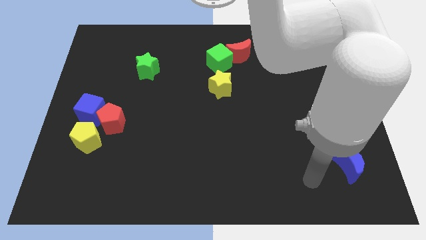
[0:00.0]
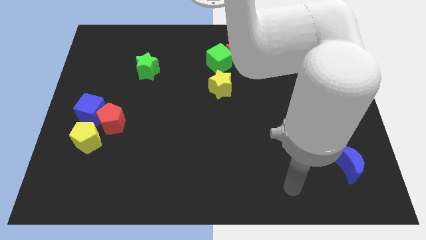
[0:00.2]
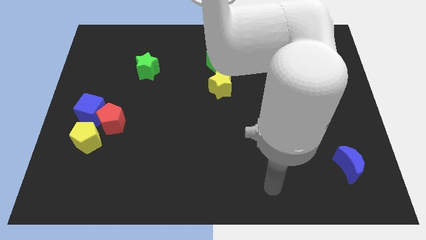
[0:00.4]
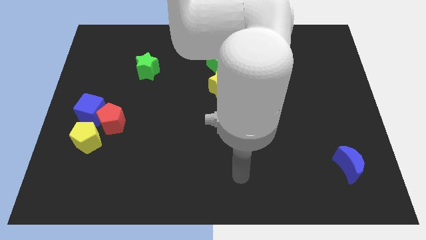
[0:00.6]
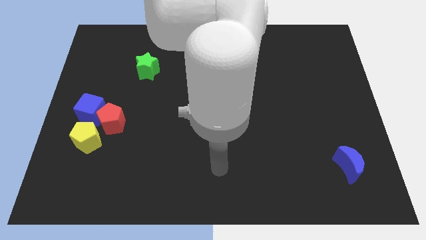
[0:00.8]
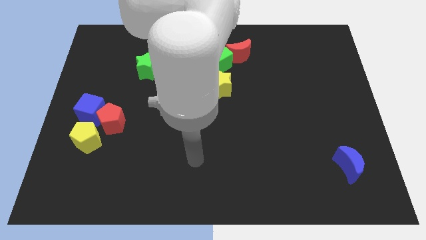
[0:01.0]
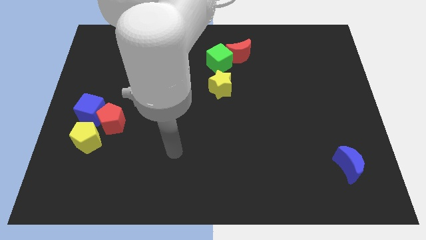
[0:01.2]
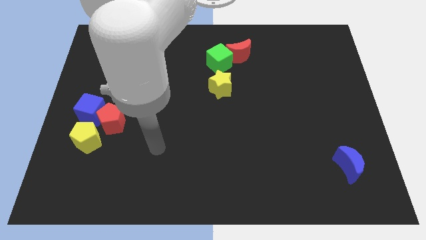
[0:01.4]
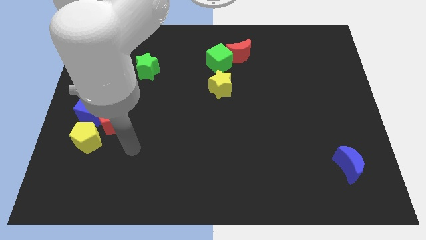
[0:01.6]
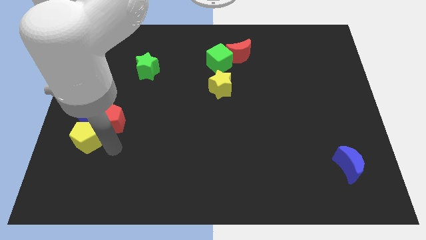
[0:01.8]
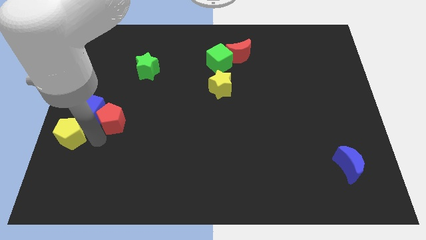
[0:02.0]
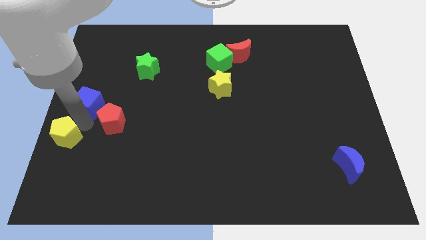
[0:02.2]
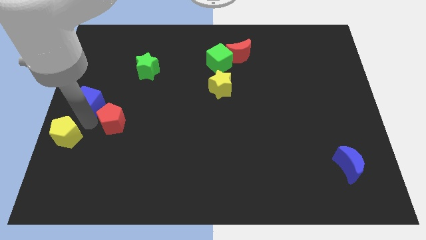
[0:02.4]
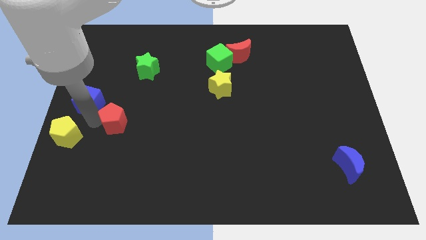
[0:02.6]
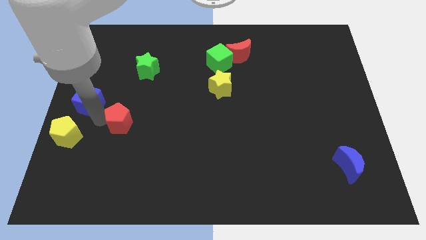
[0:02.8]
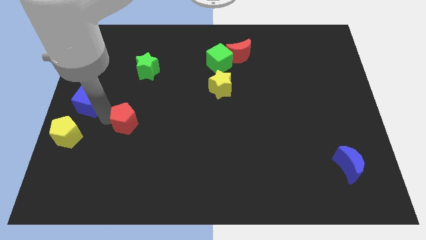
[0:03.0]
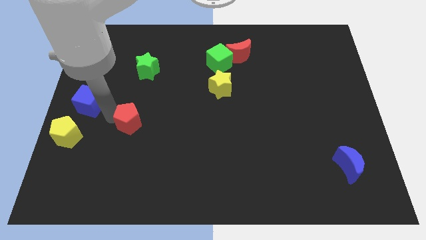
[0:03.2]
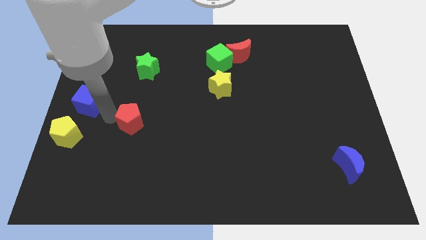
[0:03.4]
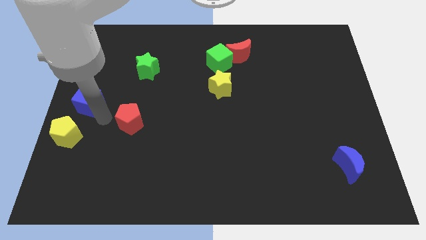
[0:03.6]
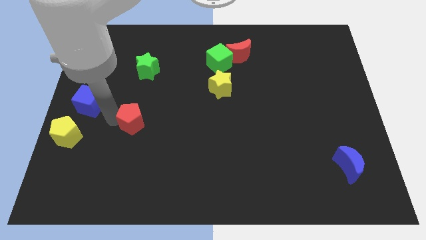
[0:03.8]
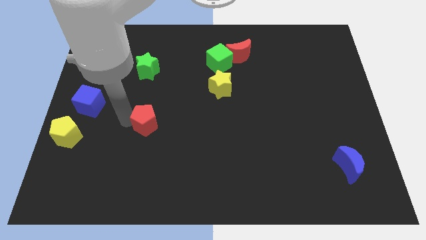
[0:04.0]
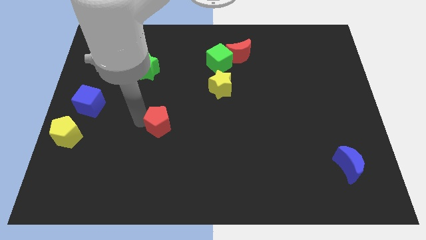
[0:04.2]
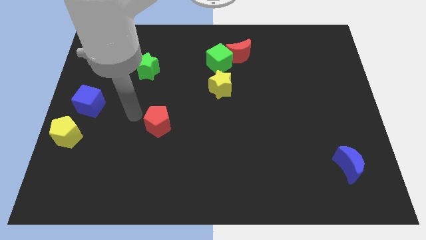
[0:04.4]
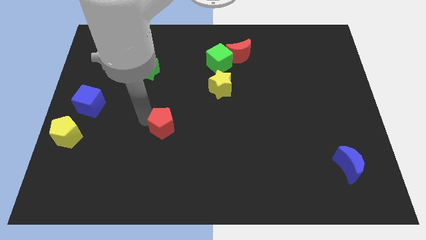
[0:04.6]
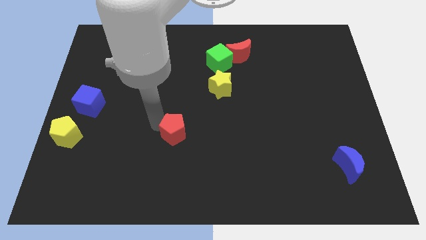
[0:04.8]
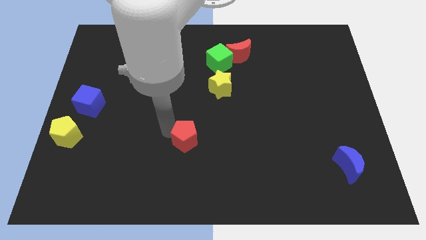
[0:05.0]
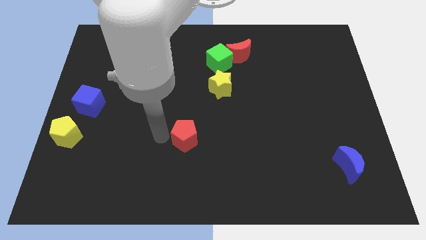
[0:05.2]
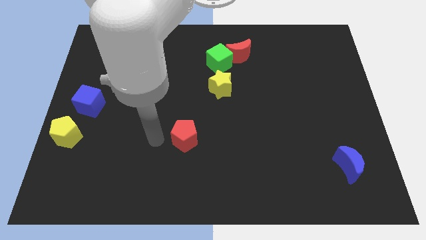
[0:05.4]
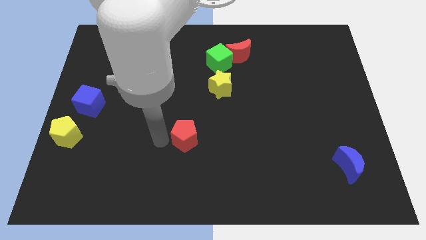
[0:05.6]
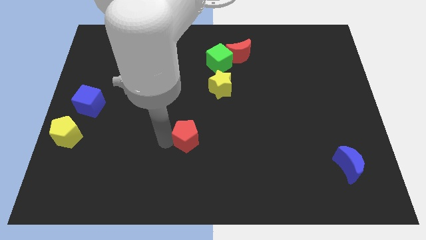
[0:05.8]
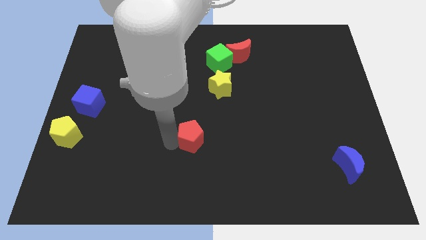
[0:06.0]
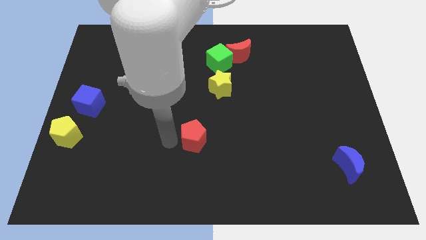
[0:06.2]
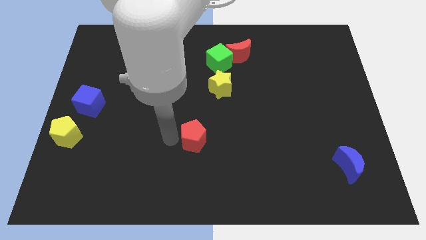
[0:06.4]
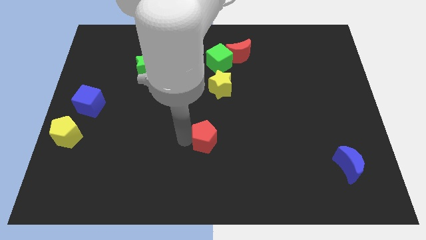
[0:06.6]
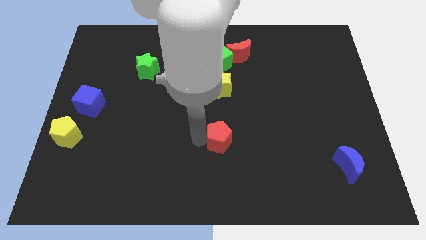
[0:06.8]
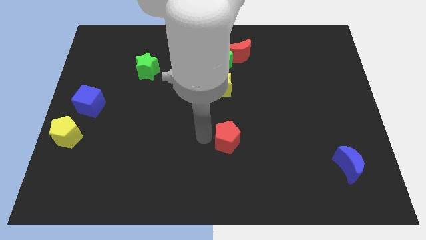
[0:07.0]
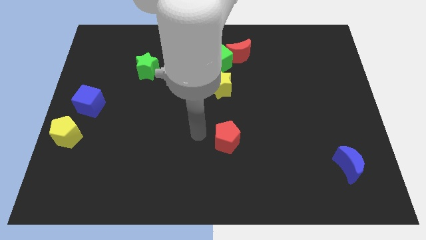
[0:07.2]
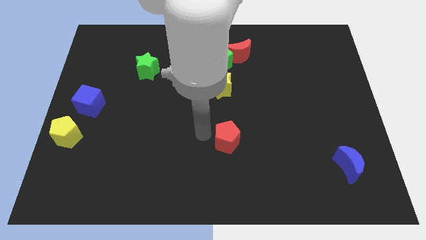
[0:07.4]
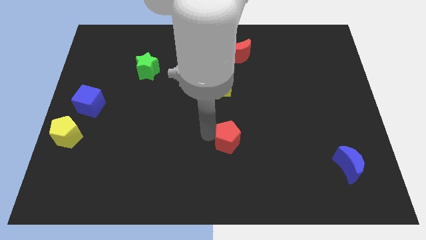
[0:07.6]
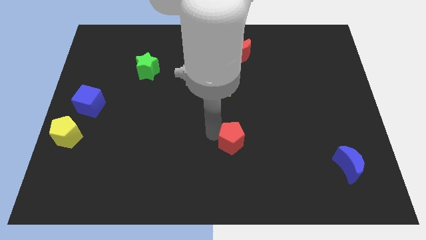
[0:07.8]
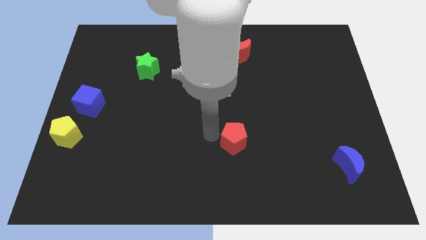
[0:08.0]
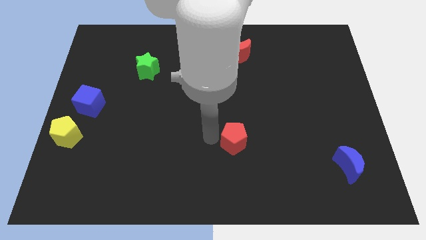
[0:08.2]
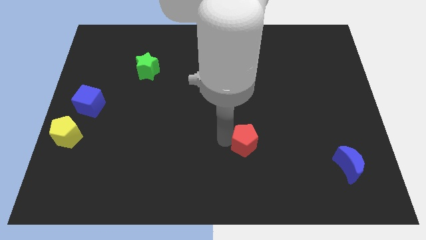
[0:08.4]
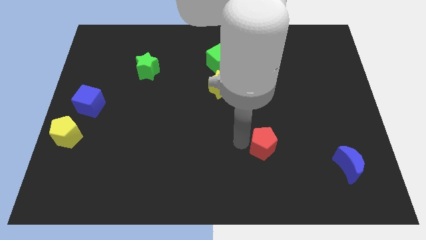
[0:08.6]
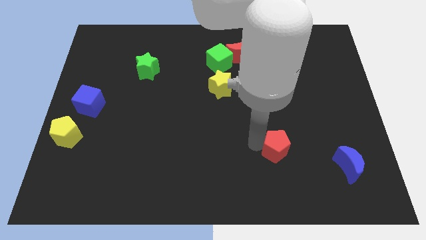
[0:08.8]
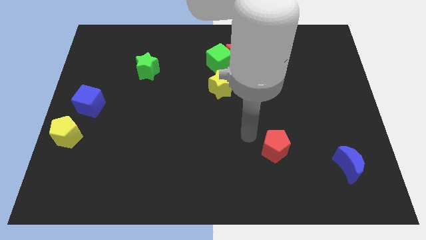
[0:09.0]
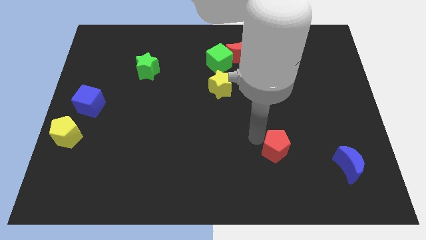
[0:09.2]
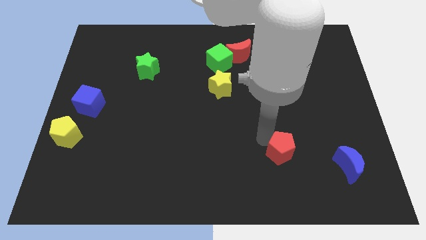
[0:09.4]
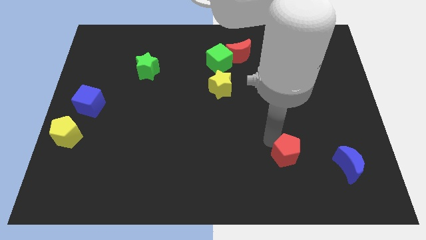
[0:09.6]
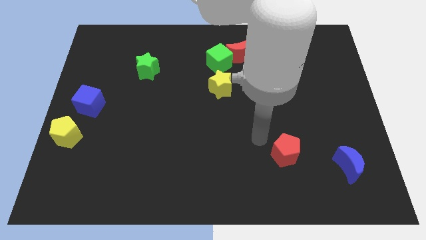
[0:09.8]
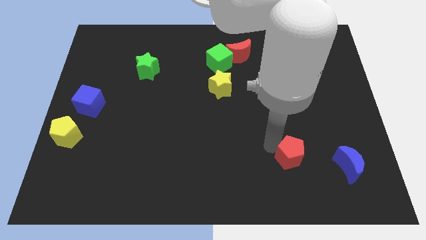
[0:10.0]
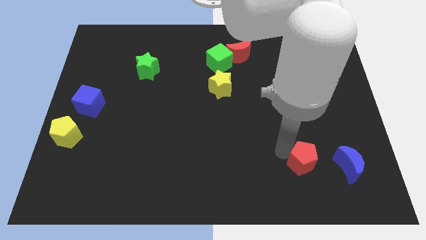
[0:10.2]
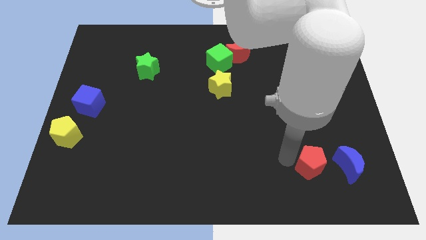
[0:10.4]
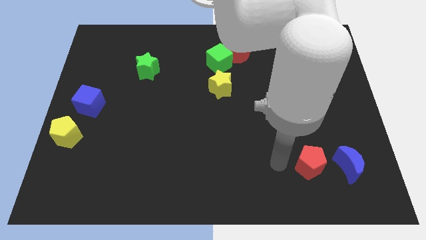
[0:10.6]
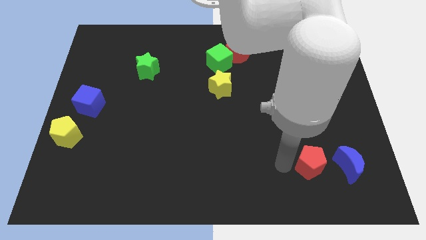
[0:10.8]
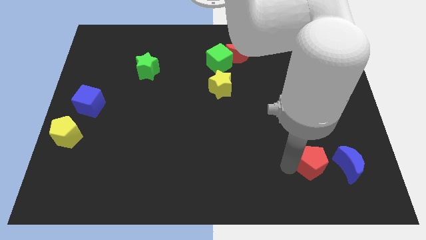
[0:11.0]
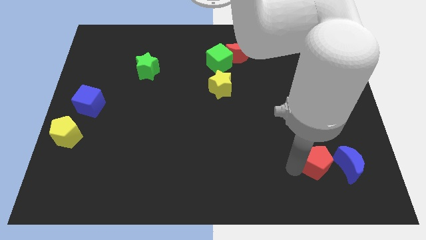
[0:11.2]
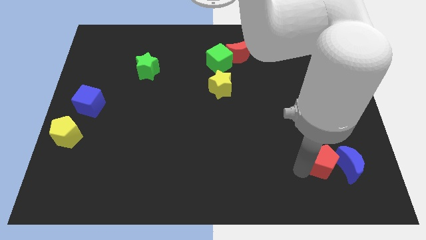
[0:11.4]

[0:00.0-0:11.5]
push the red pentagon towards the blue moon

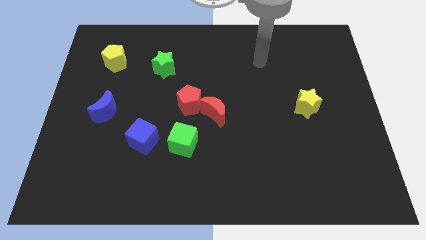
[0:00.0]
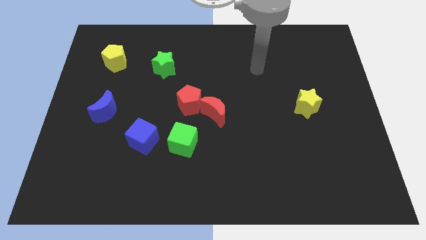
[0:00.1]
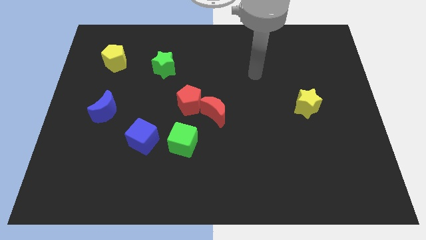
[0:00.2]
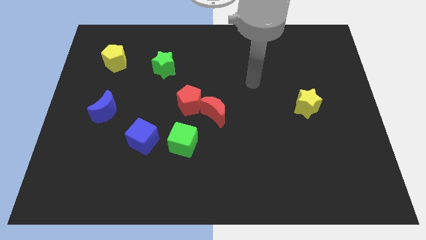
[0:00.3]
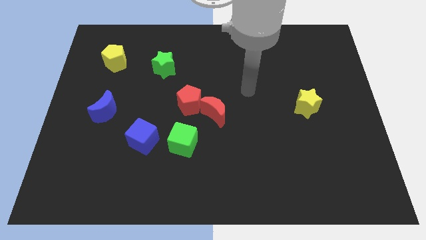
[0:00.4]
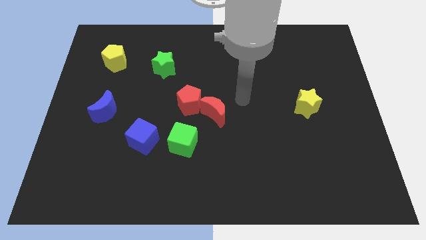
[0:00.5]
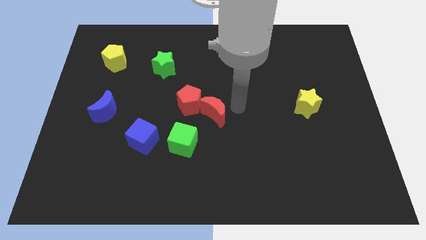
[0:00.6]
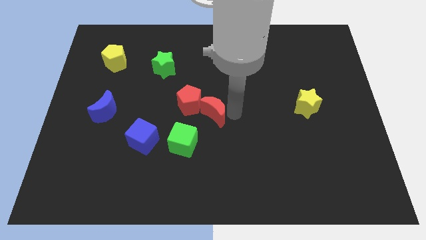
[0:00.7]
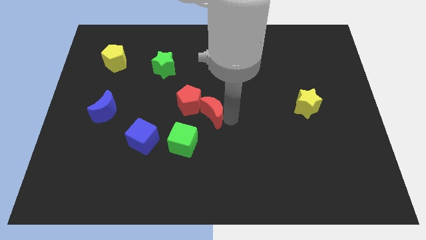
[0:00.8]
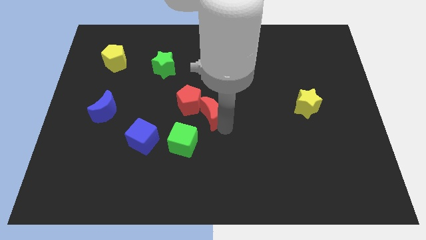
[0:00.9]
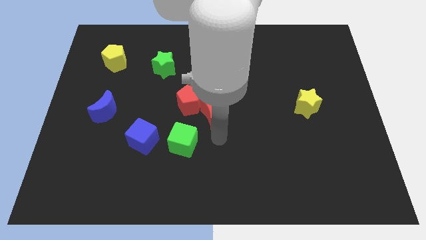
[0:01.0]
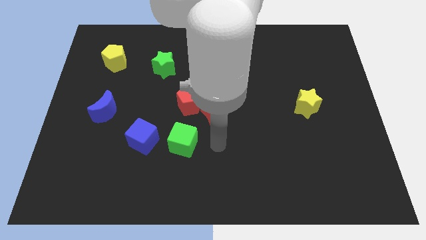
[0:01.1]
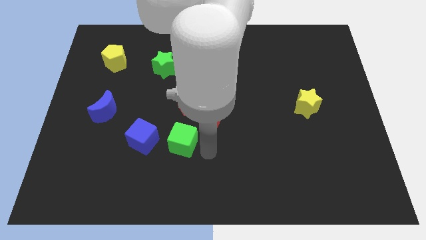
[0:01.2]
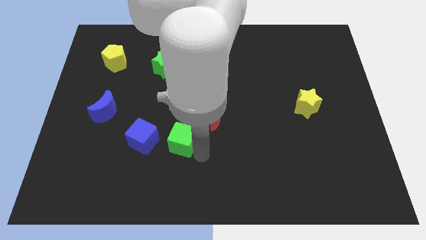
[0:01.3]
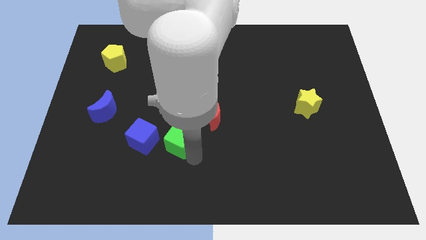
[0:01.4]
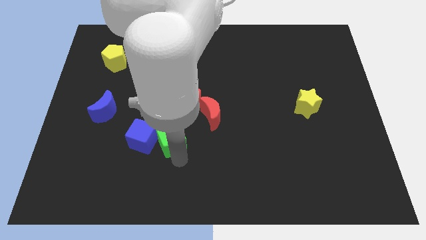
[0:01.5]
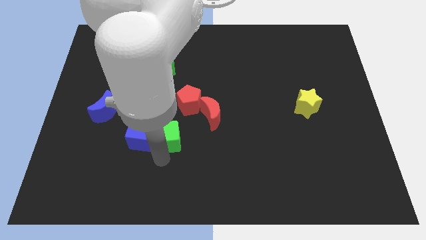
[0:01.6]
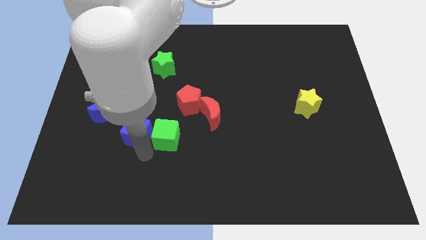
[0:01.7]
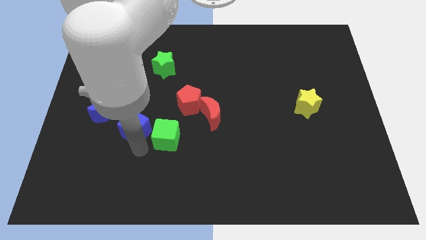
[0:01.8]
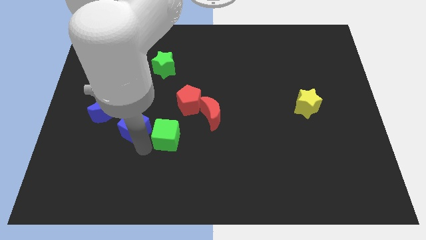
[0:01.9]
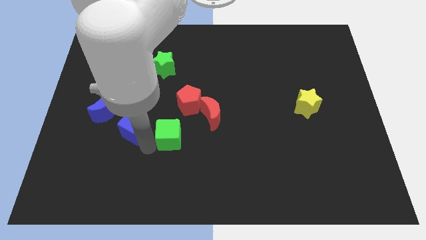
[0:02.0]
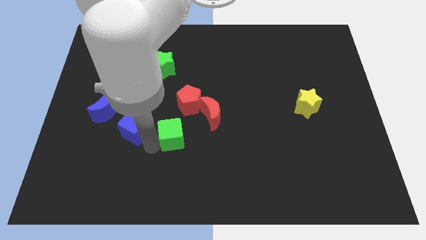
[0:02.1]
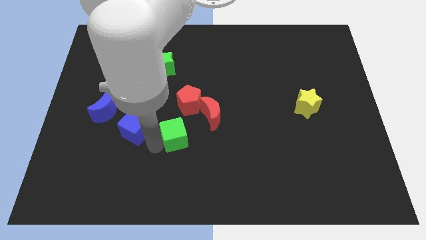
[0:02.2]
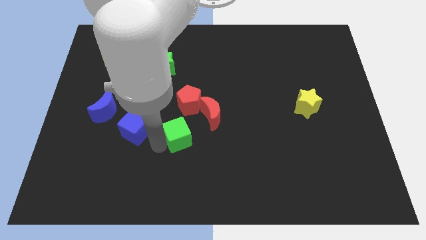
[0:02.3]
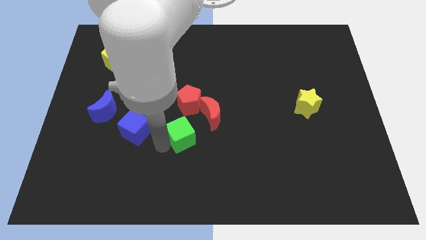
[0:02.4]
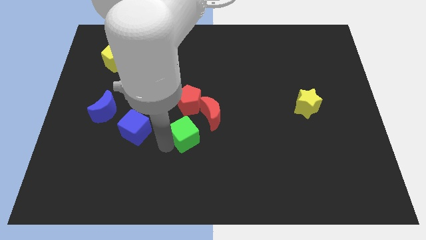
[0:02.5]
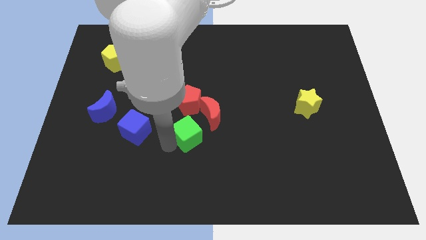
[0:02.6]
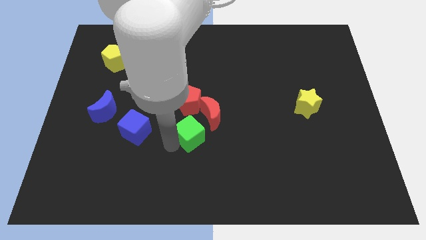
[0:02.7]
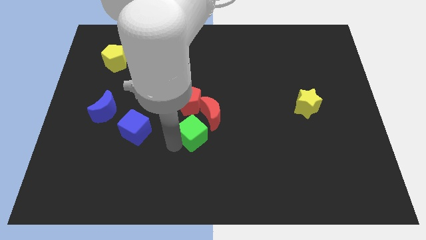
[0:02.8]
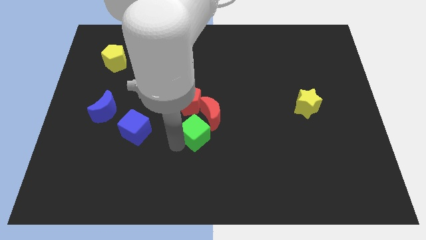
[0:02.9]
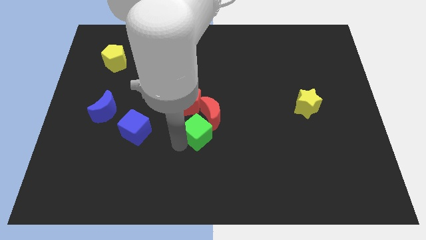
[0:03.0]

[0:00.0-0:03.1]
push the green cube next to the red moon
